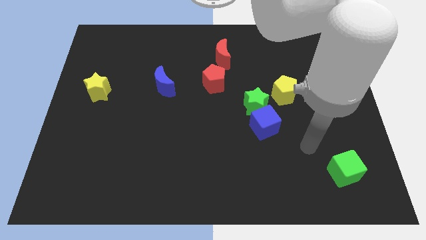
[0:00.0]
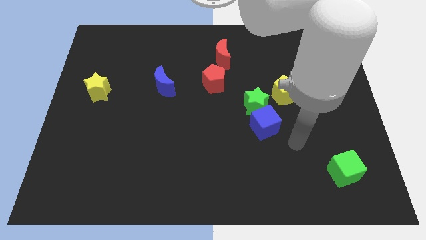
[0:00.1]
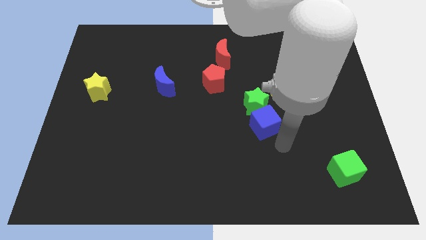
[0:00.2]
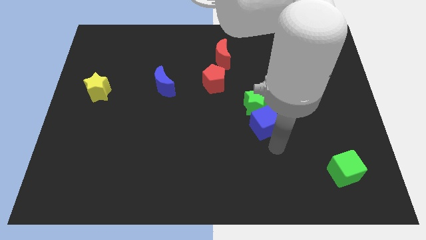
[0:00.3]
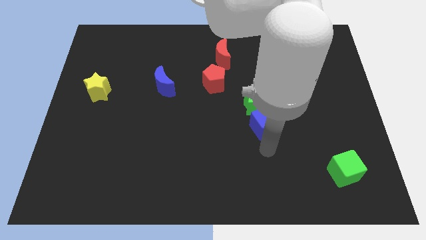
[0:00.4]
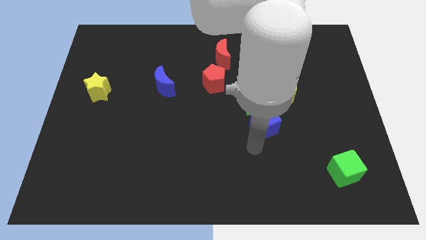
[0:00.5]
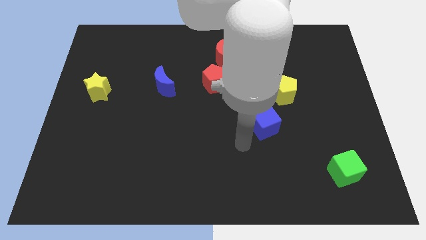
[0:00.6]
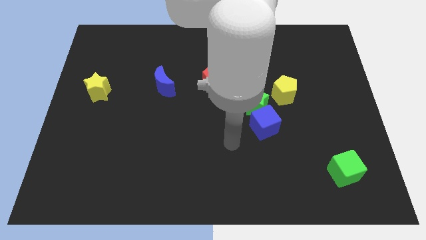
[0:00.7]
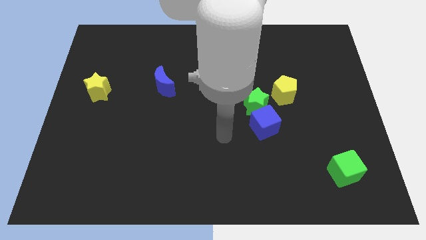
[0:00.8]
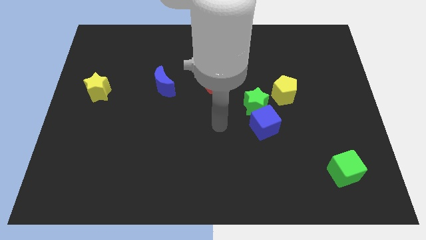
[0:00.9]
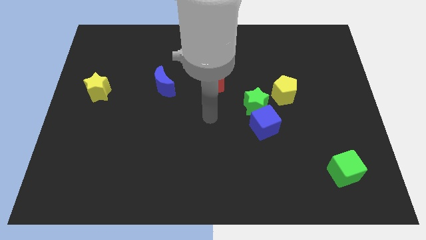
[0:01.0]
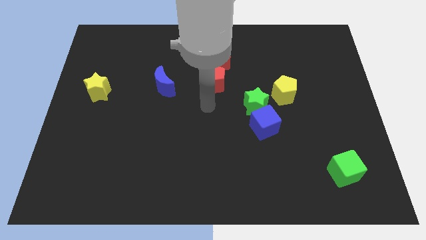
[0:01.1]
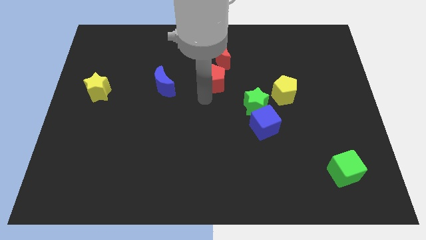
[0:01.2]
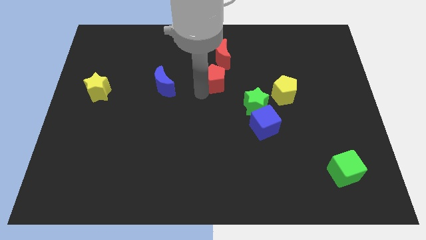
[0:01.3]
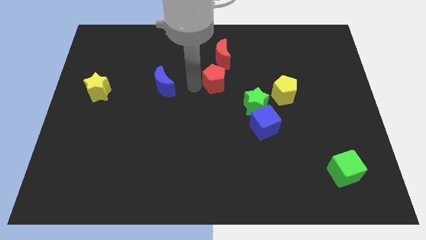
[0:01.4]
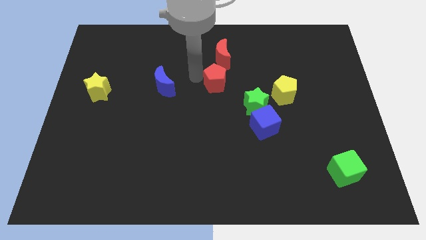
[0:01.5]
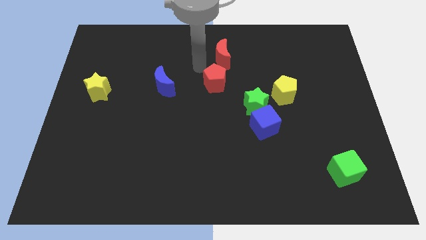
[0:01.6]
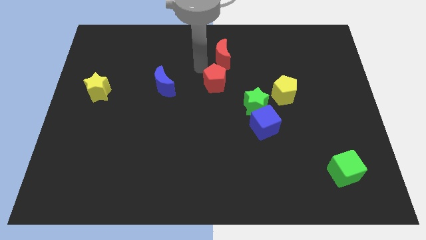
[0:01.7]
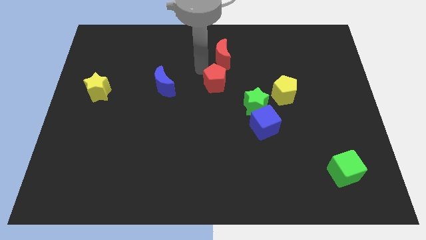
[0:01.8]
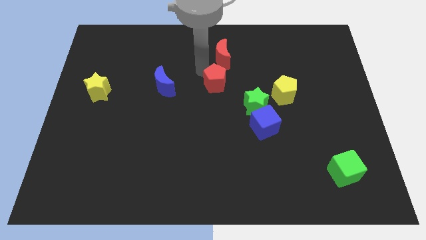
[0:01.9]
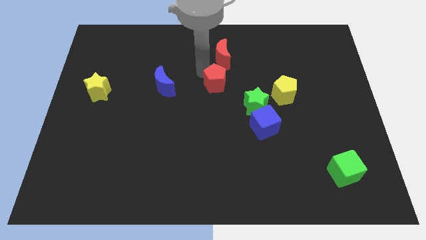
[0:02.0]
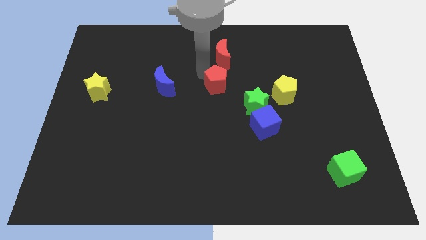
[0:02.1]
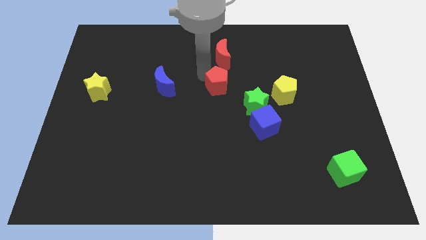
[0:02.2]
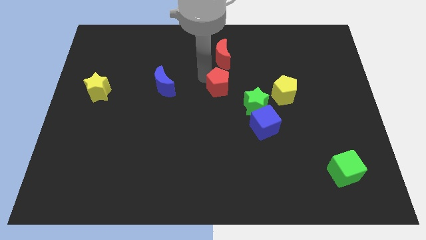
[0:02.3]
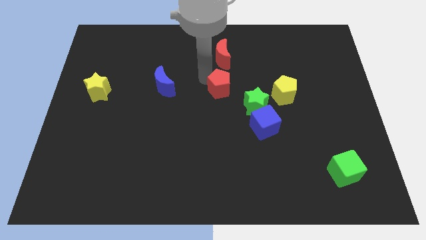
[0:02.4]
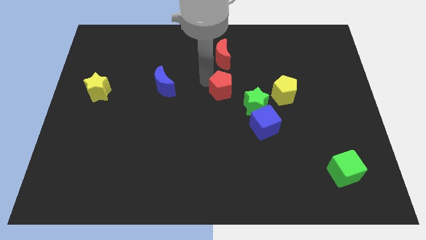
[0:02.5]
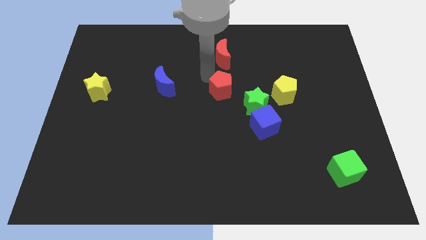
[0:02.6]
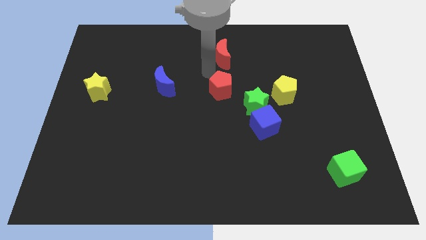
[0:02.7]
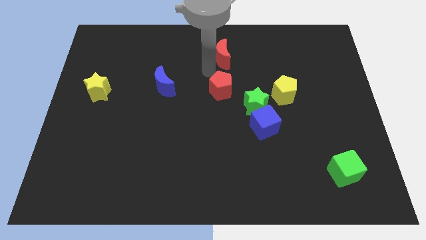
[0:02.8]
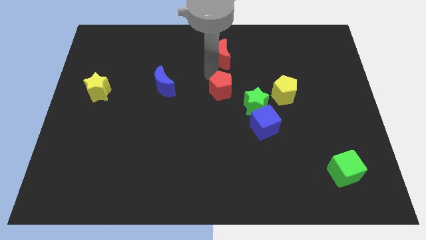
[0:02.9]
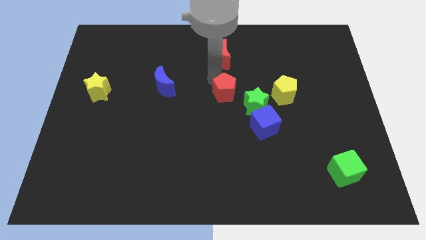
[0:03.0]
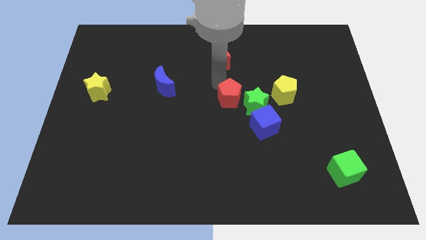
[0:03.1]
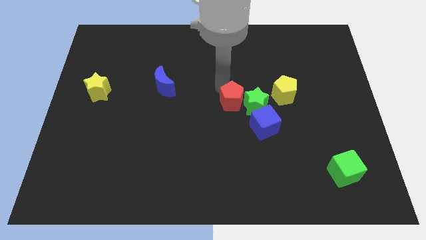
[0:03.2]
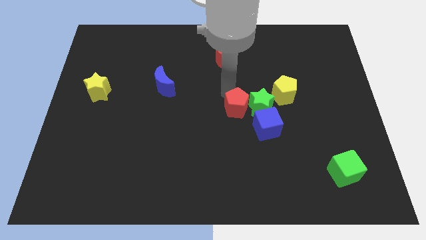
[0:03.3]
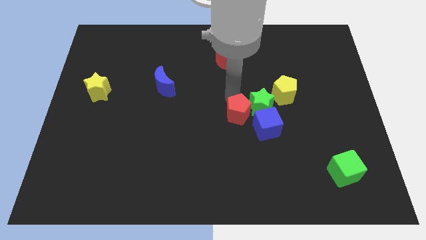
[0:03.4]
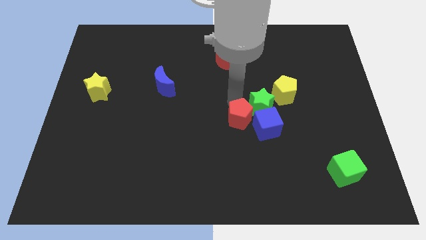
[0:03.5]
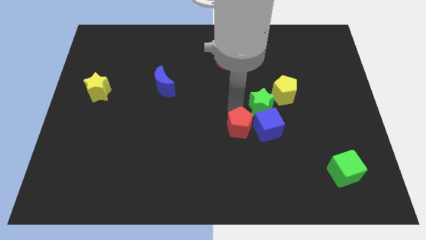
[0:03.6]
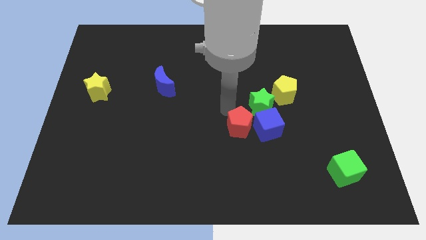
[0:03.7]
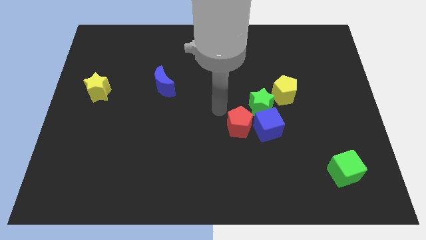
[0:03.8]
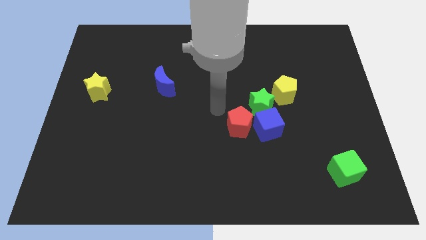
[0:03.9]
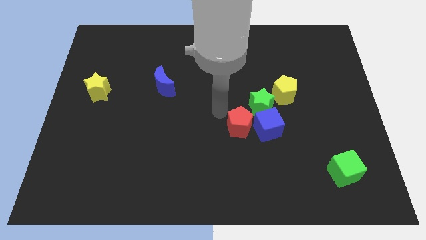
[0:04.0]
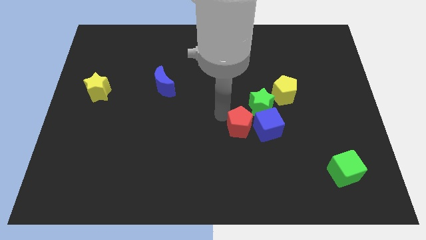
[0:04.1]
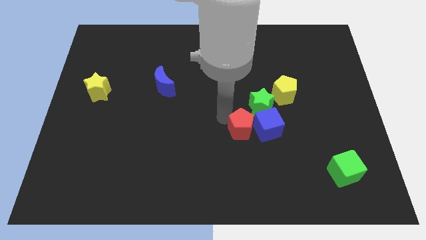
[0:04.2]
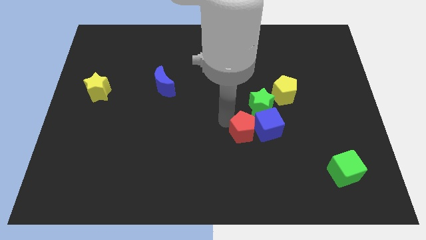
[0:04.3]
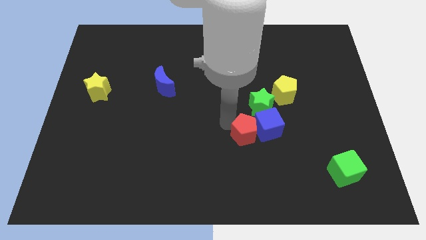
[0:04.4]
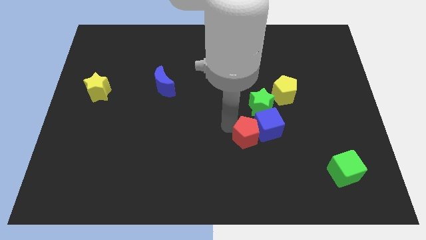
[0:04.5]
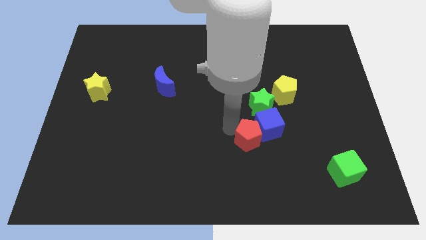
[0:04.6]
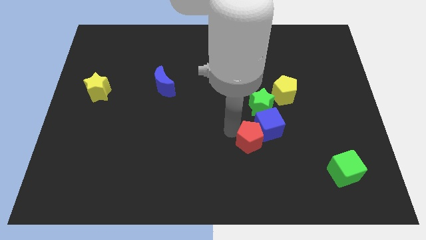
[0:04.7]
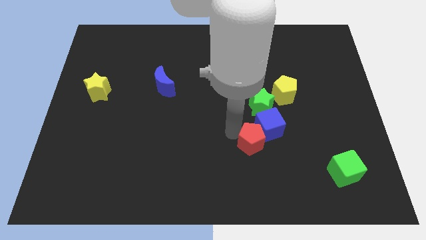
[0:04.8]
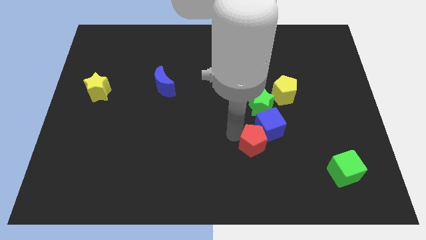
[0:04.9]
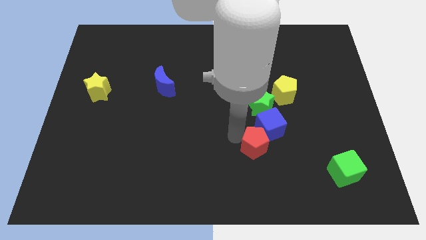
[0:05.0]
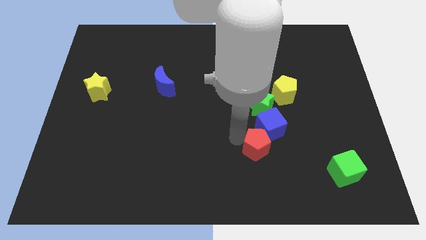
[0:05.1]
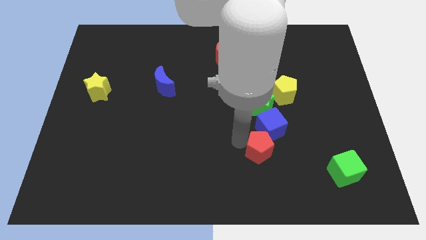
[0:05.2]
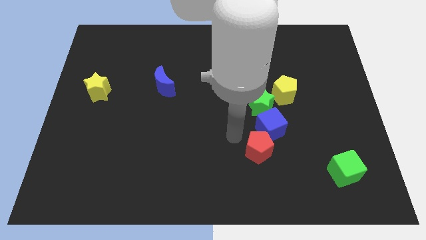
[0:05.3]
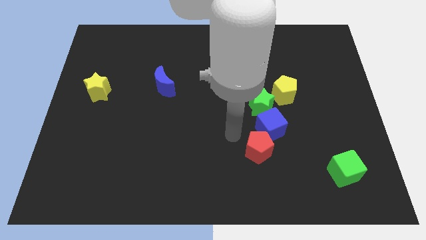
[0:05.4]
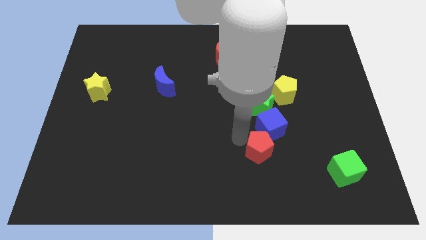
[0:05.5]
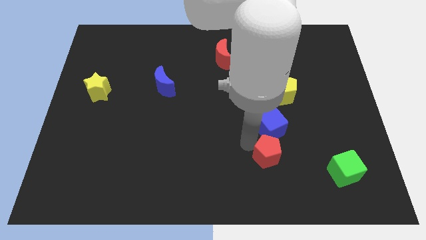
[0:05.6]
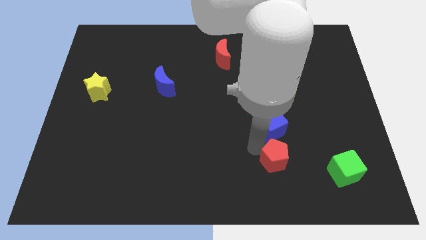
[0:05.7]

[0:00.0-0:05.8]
move the red pentagon left of the green cube

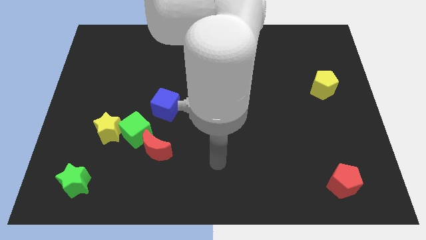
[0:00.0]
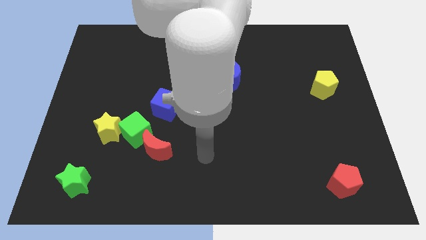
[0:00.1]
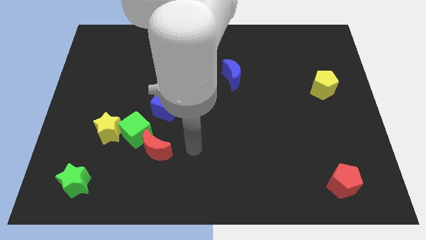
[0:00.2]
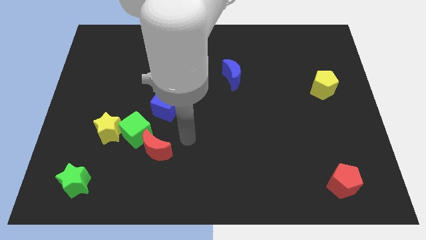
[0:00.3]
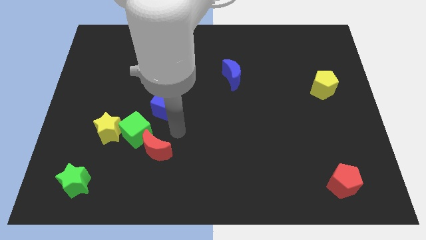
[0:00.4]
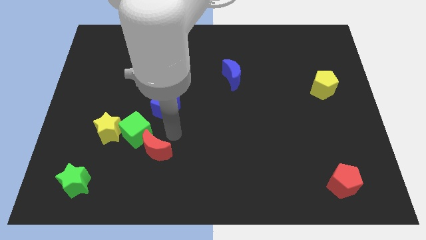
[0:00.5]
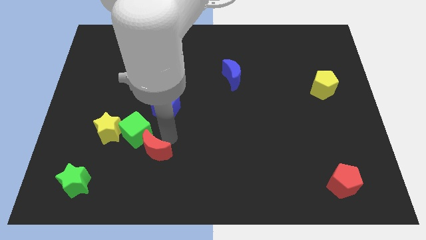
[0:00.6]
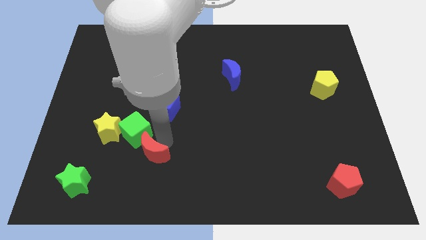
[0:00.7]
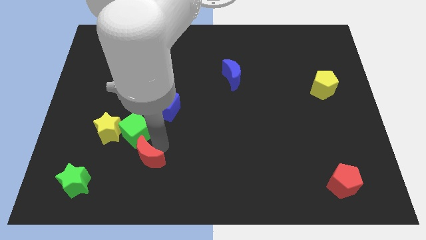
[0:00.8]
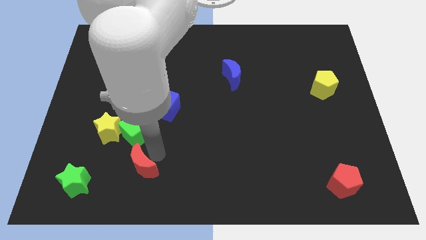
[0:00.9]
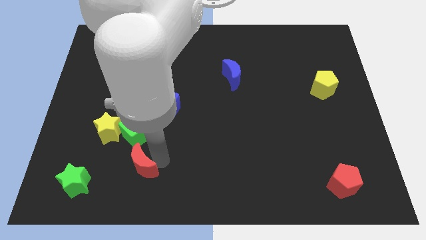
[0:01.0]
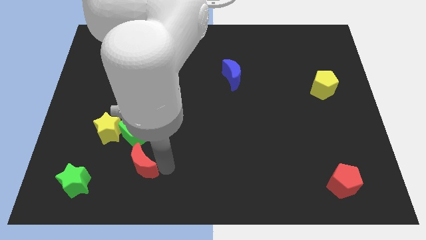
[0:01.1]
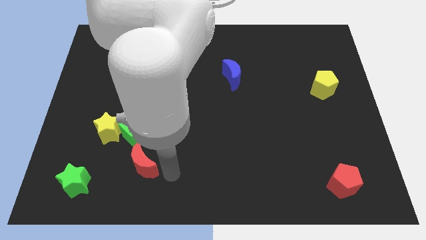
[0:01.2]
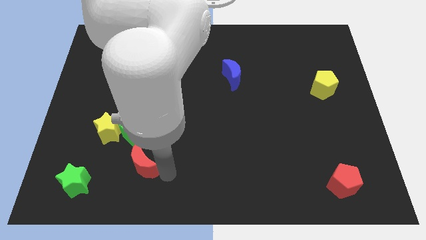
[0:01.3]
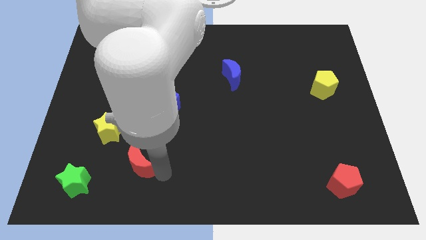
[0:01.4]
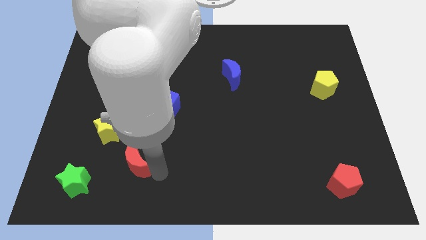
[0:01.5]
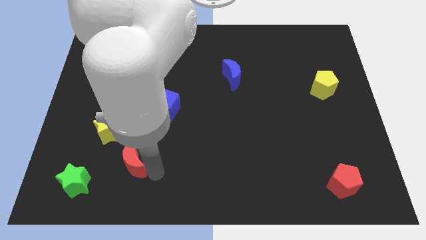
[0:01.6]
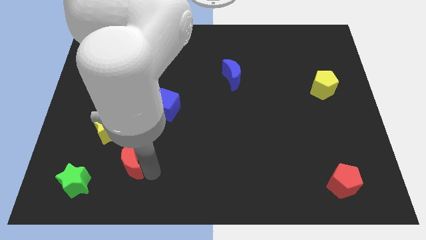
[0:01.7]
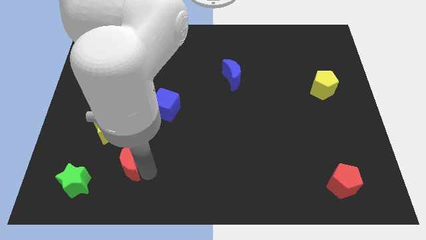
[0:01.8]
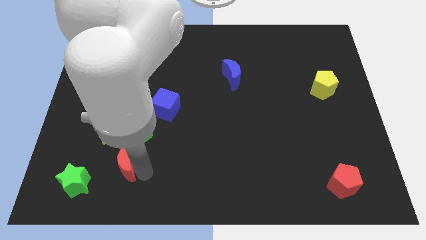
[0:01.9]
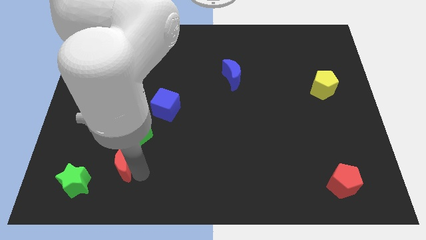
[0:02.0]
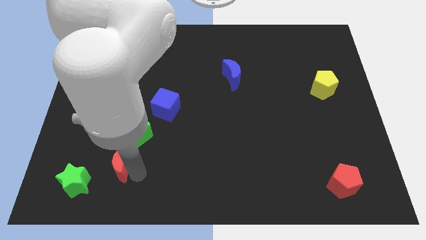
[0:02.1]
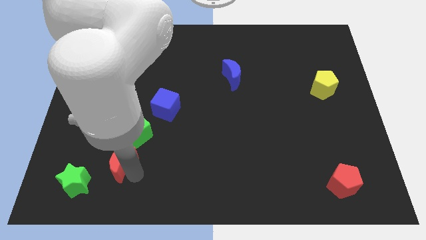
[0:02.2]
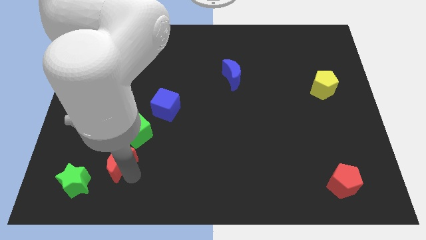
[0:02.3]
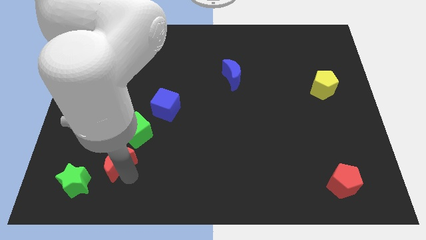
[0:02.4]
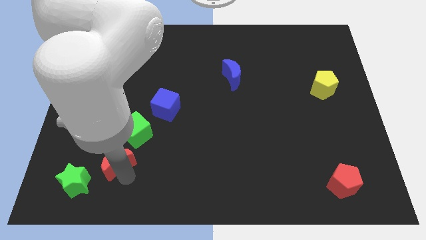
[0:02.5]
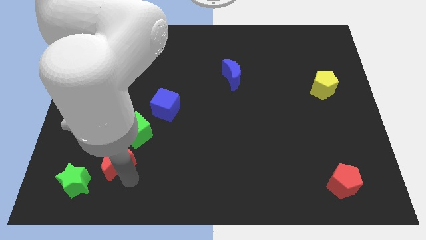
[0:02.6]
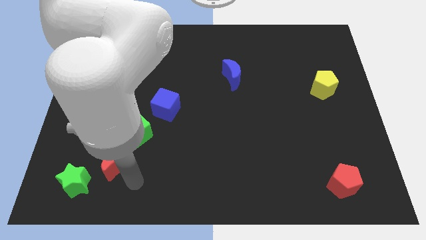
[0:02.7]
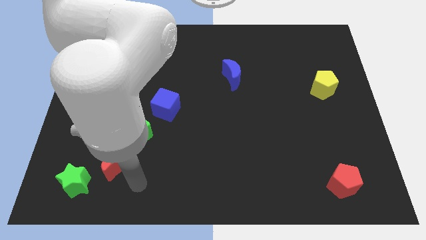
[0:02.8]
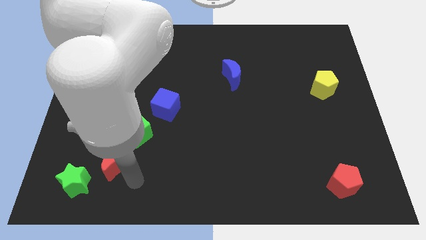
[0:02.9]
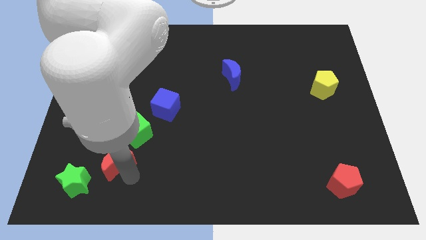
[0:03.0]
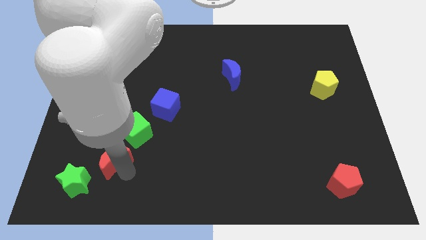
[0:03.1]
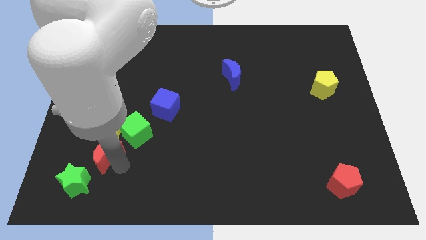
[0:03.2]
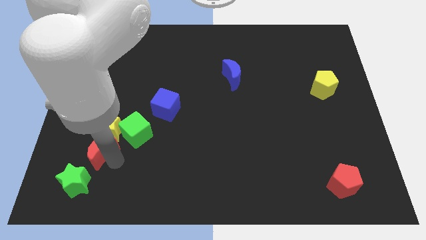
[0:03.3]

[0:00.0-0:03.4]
slide the red moon to the top side of the green star
